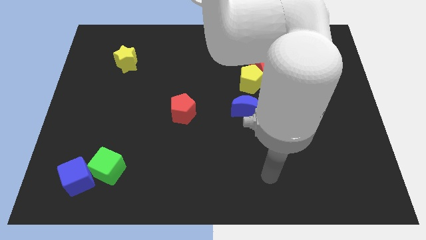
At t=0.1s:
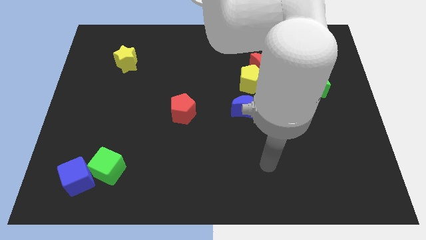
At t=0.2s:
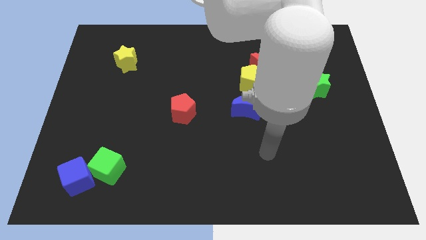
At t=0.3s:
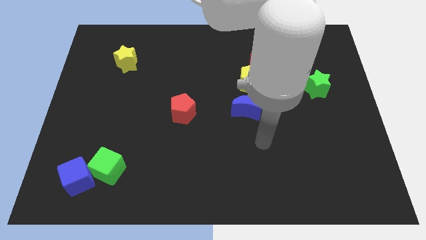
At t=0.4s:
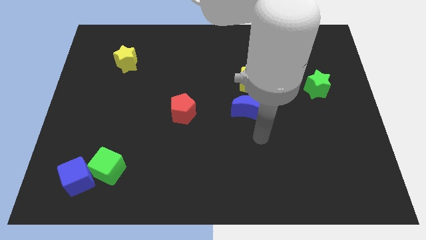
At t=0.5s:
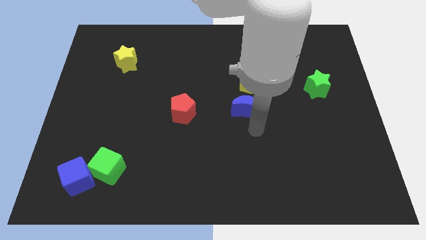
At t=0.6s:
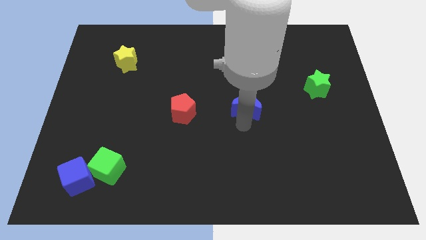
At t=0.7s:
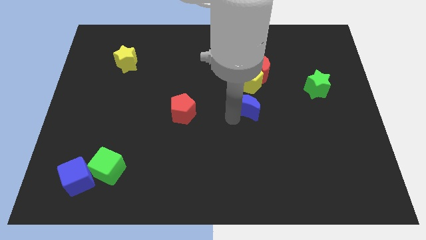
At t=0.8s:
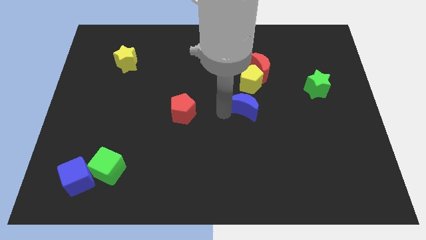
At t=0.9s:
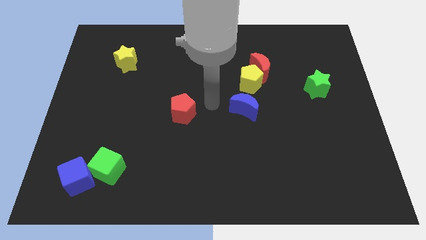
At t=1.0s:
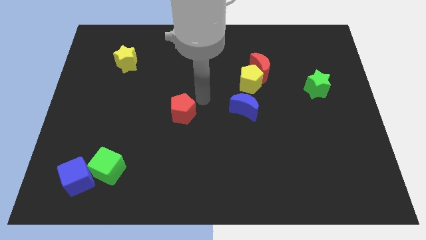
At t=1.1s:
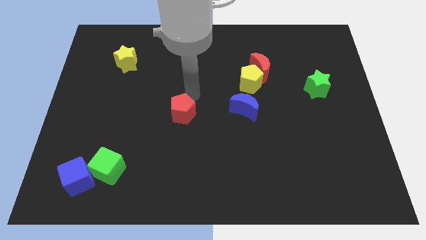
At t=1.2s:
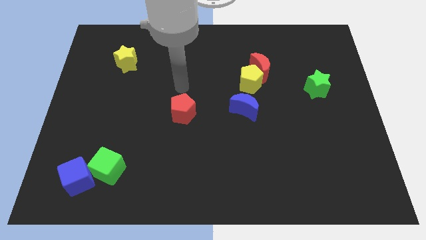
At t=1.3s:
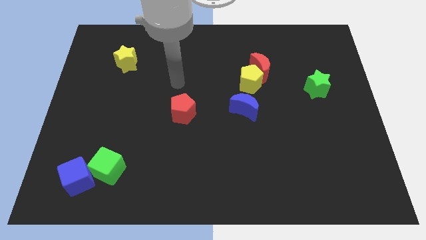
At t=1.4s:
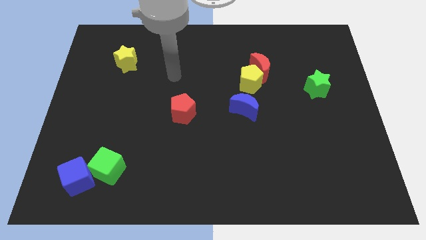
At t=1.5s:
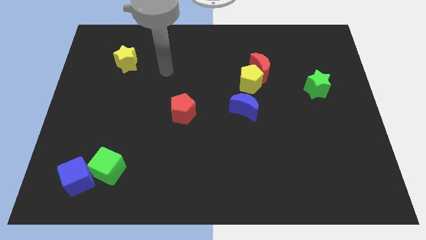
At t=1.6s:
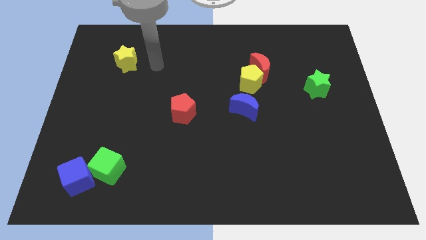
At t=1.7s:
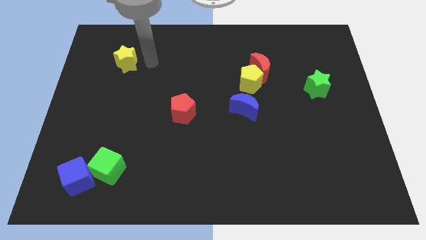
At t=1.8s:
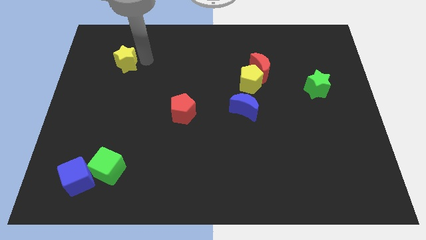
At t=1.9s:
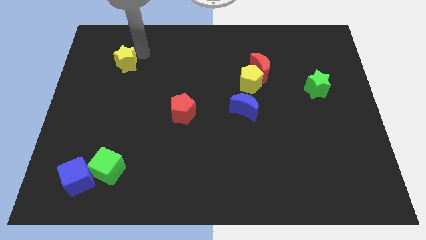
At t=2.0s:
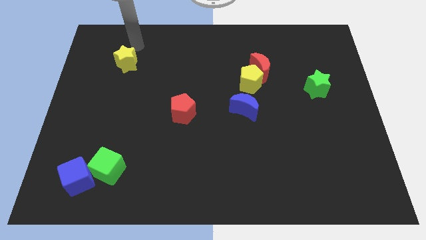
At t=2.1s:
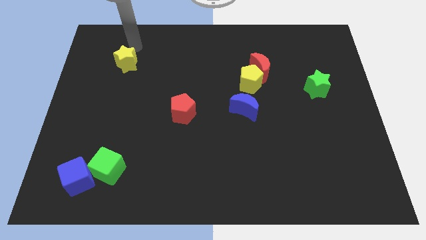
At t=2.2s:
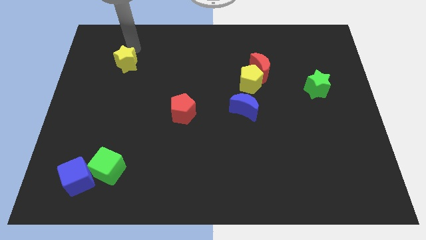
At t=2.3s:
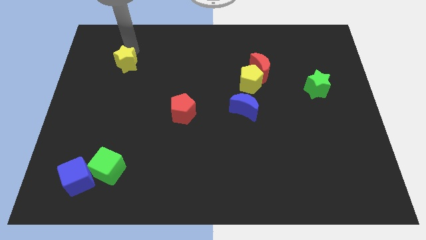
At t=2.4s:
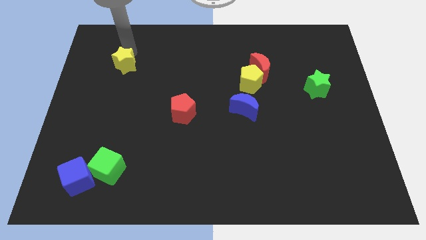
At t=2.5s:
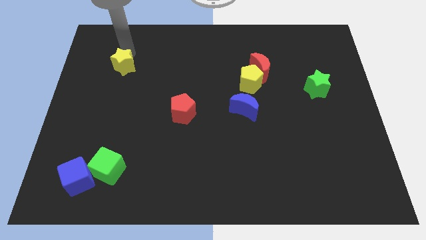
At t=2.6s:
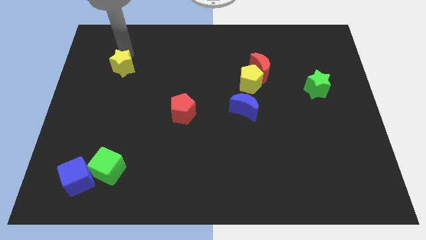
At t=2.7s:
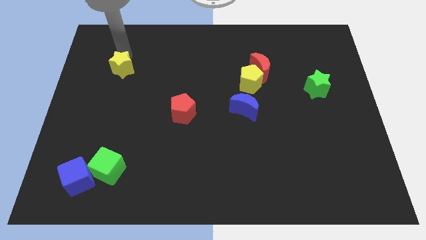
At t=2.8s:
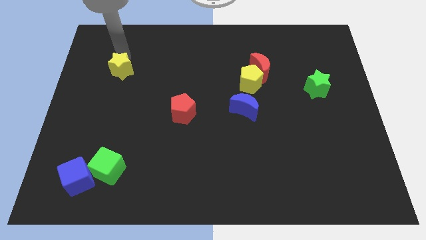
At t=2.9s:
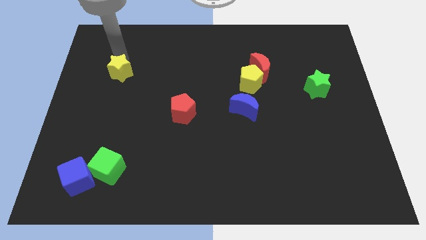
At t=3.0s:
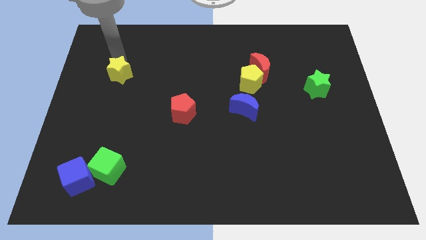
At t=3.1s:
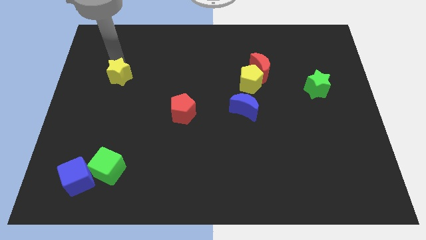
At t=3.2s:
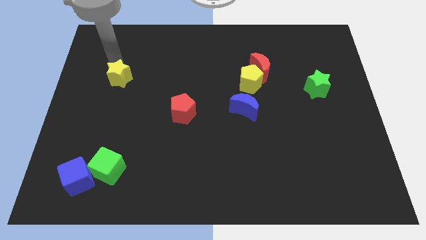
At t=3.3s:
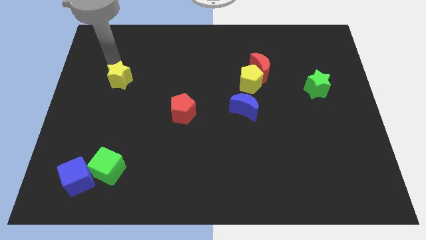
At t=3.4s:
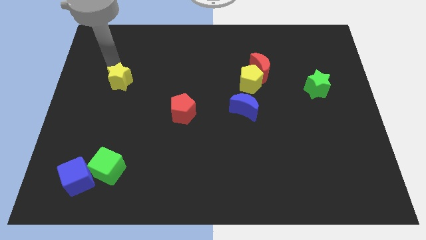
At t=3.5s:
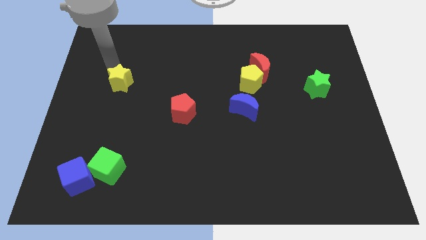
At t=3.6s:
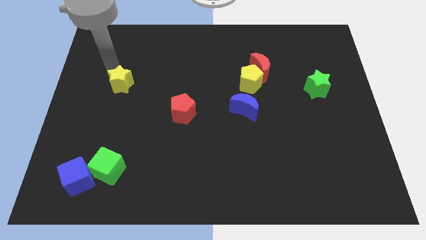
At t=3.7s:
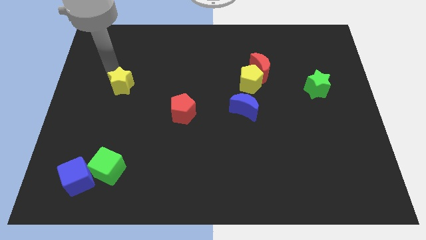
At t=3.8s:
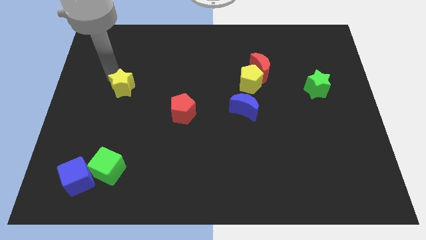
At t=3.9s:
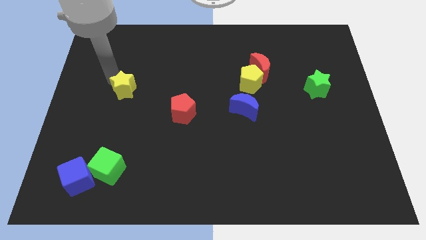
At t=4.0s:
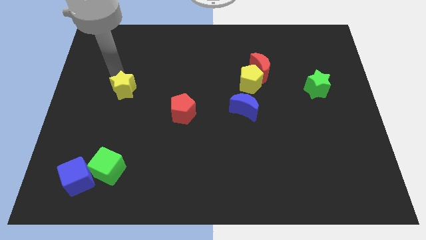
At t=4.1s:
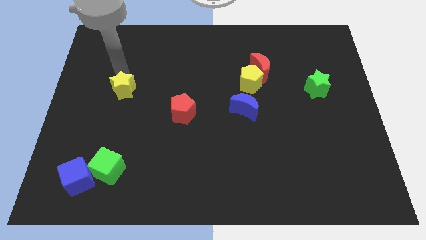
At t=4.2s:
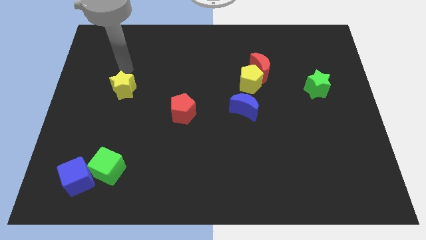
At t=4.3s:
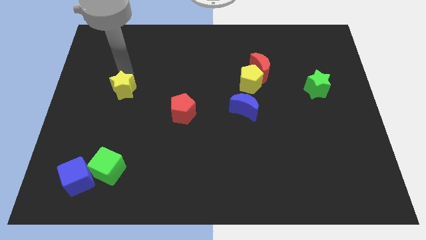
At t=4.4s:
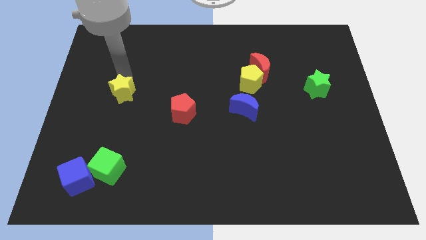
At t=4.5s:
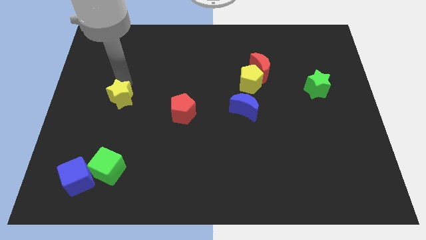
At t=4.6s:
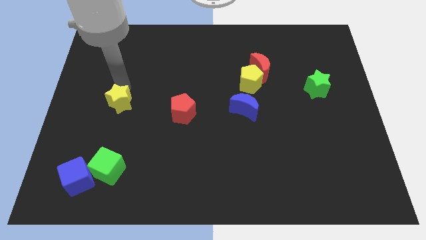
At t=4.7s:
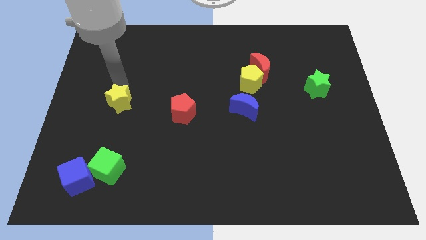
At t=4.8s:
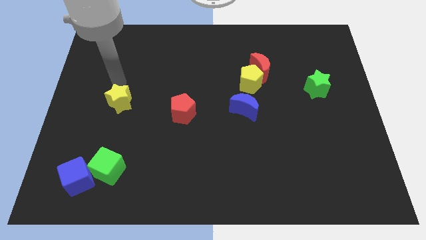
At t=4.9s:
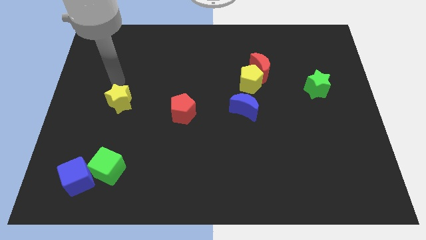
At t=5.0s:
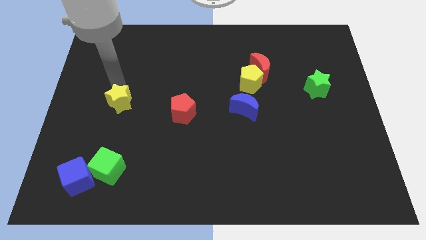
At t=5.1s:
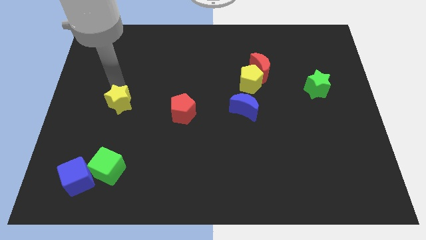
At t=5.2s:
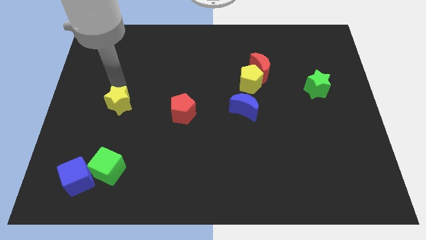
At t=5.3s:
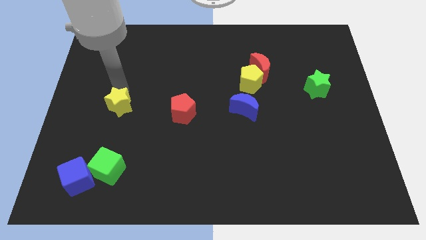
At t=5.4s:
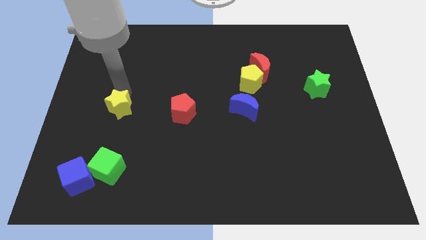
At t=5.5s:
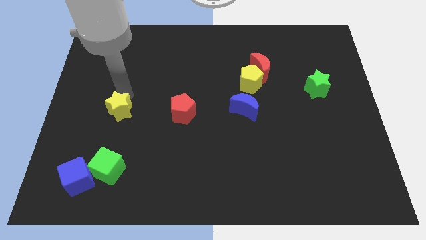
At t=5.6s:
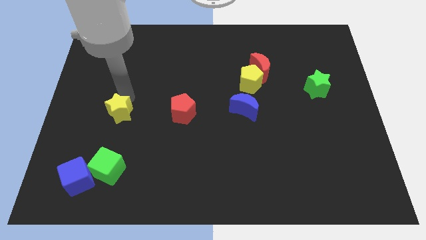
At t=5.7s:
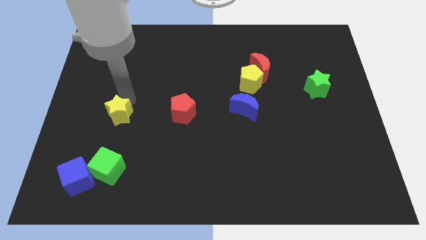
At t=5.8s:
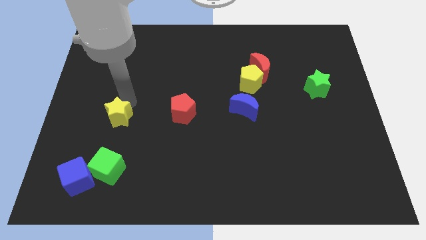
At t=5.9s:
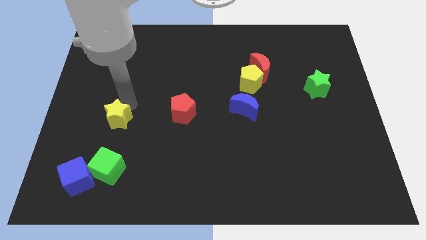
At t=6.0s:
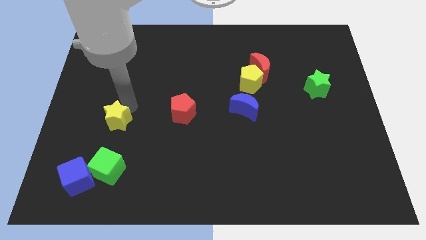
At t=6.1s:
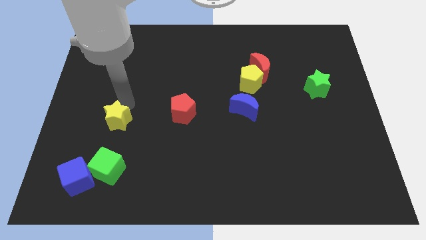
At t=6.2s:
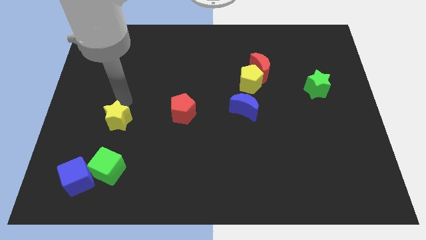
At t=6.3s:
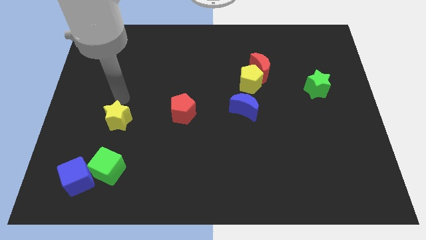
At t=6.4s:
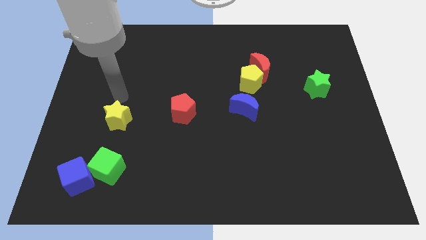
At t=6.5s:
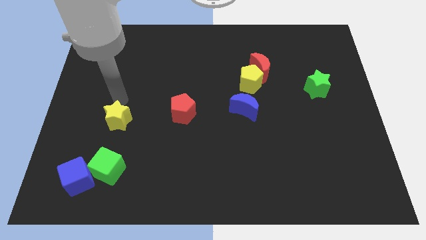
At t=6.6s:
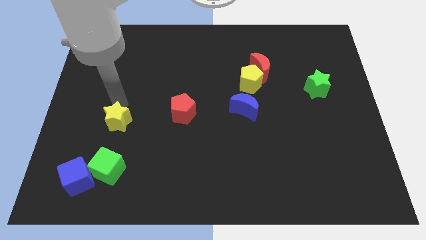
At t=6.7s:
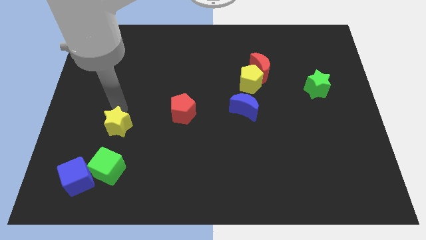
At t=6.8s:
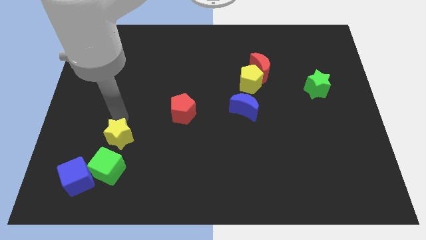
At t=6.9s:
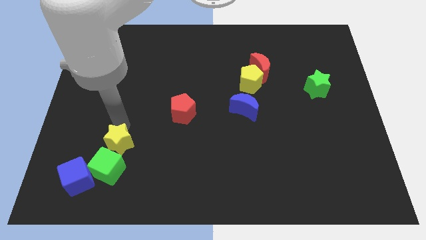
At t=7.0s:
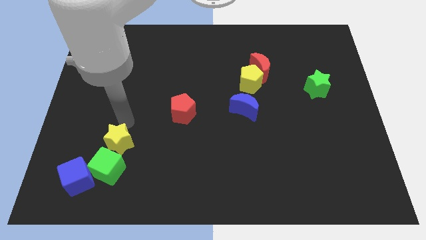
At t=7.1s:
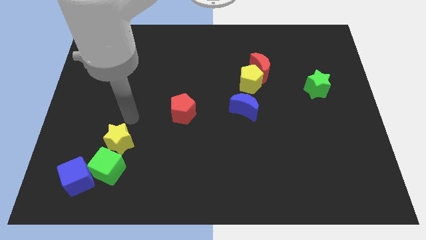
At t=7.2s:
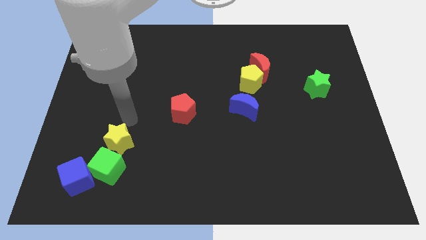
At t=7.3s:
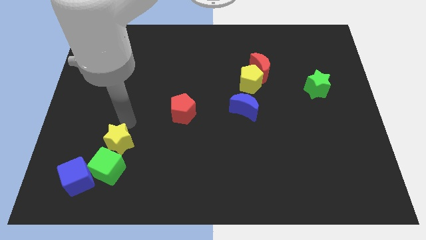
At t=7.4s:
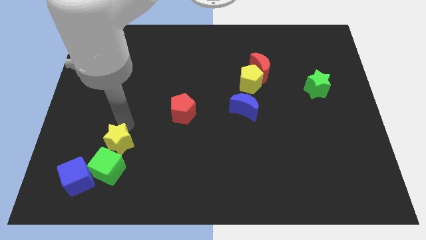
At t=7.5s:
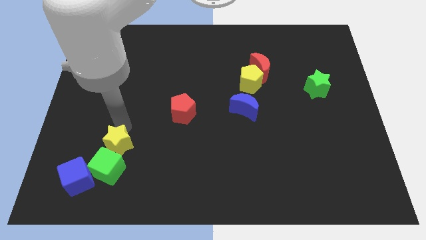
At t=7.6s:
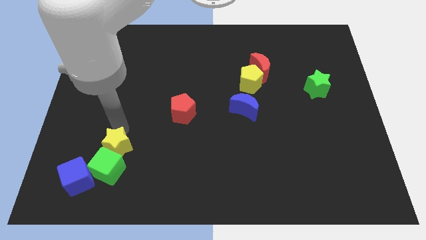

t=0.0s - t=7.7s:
move the yellow star next to the green cube
